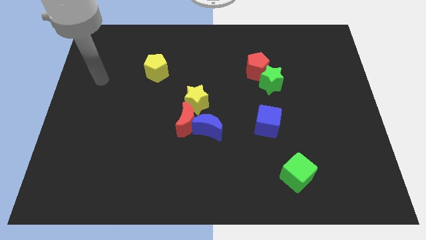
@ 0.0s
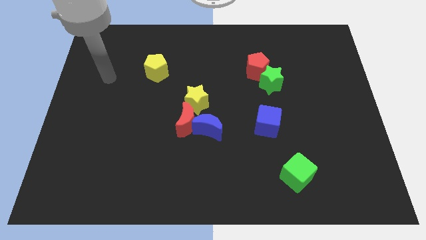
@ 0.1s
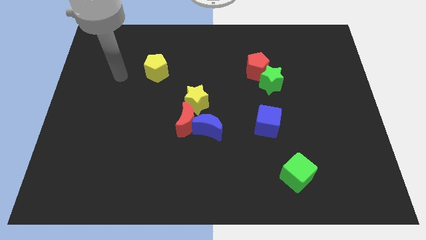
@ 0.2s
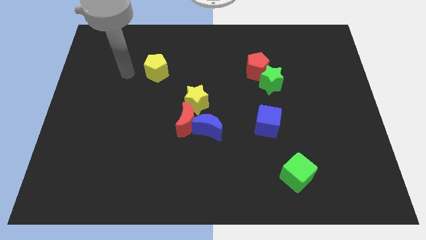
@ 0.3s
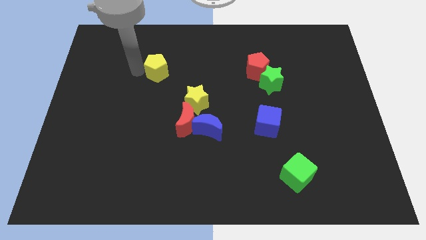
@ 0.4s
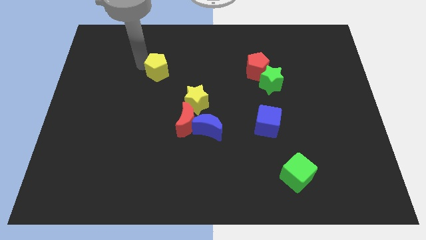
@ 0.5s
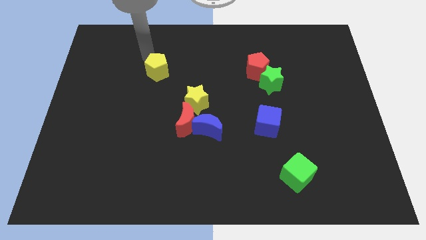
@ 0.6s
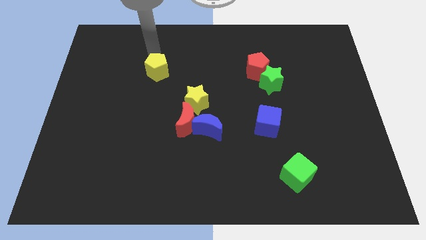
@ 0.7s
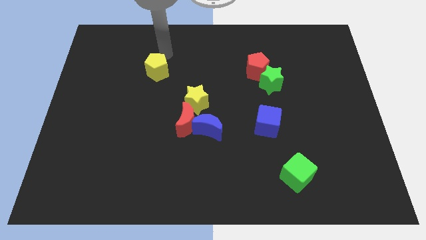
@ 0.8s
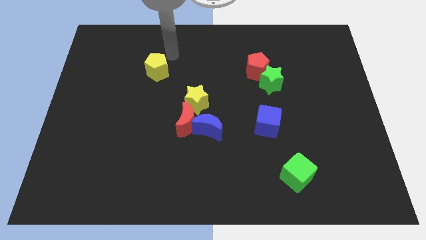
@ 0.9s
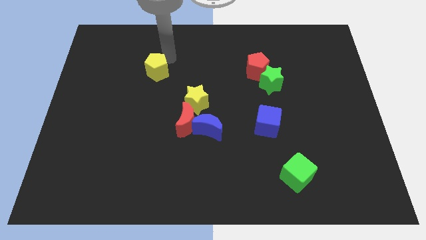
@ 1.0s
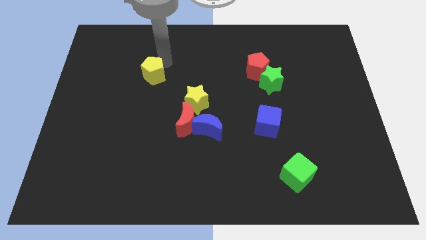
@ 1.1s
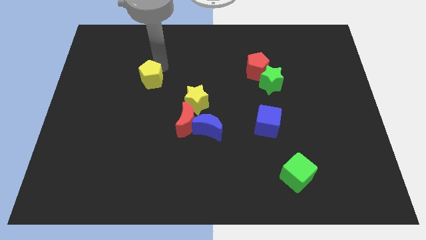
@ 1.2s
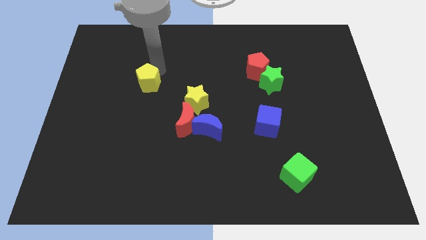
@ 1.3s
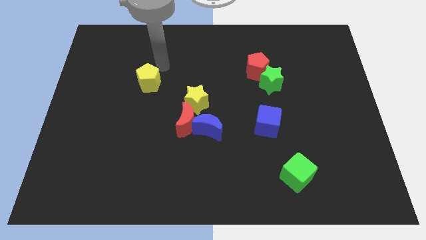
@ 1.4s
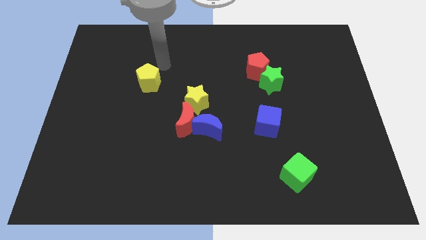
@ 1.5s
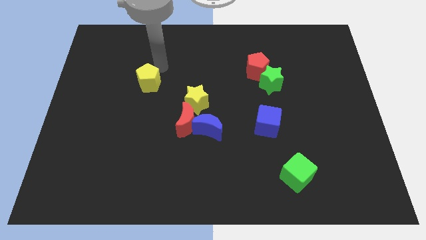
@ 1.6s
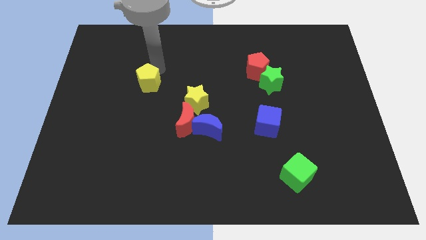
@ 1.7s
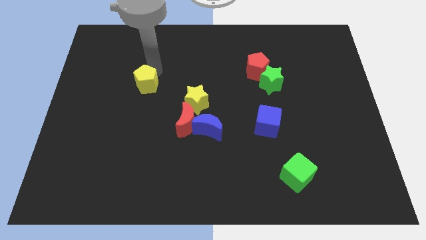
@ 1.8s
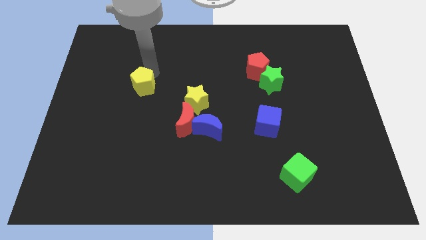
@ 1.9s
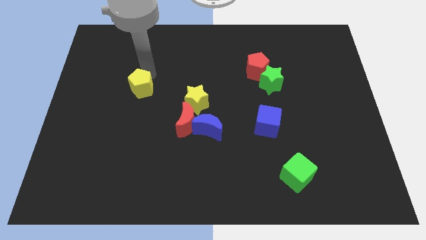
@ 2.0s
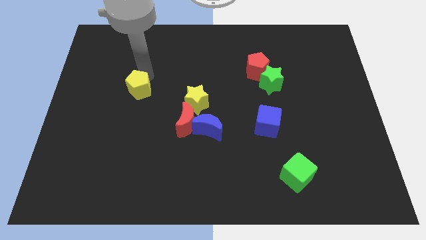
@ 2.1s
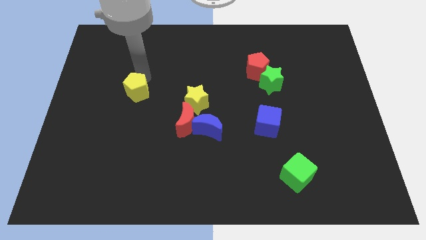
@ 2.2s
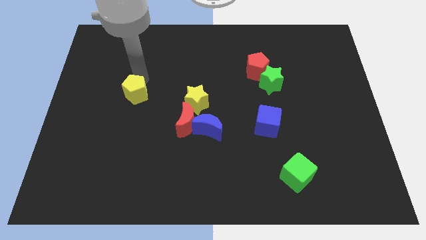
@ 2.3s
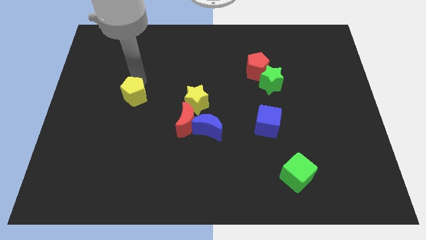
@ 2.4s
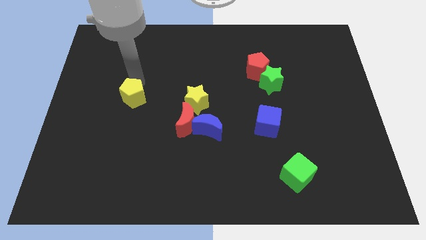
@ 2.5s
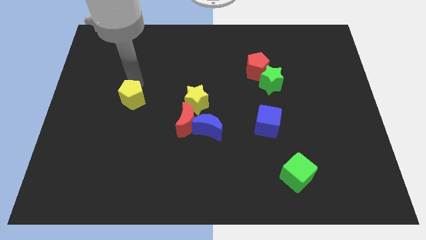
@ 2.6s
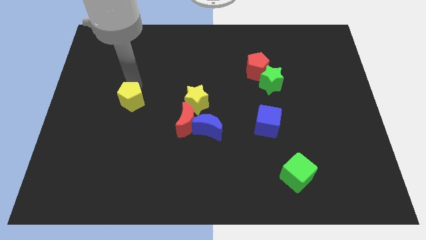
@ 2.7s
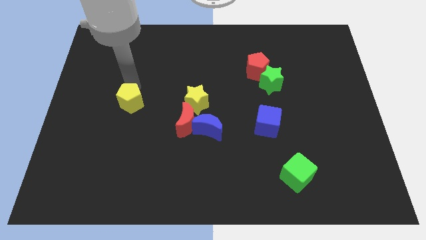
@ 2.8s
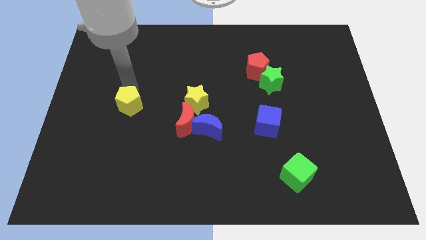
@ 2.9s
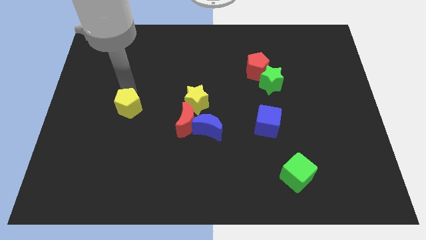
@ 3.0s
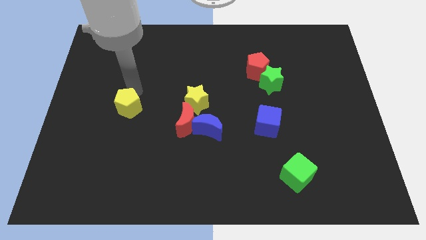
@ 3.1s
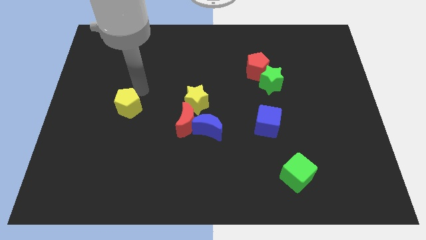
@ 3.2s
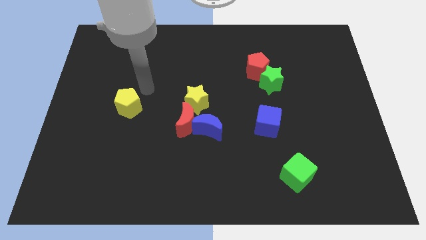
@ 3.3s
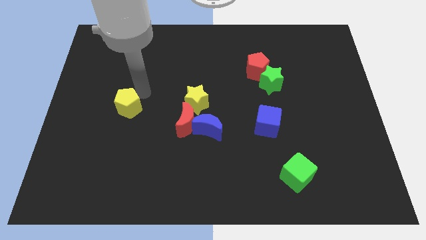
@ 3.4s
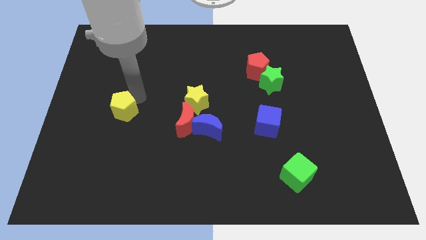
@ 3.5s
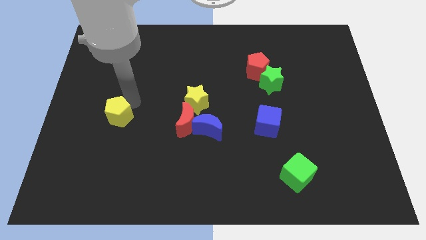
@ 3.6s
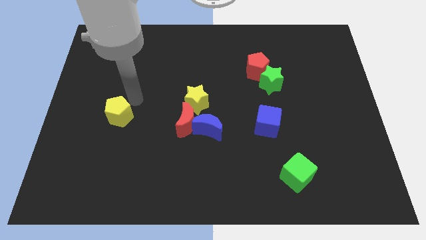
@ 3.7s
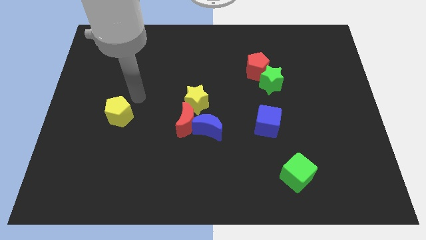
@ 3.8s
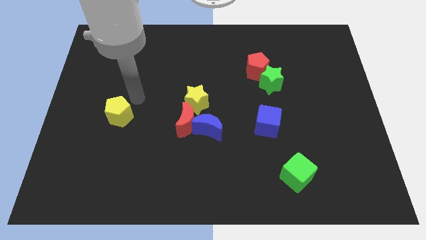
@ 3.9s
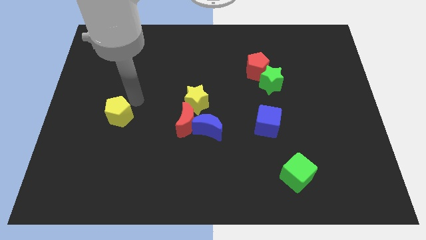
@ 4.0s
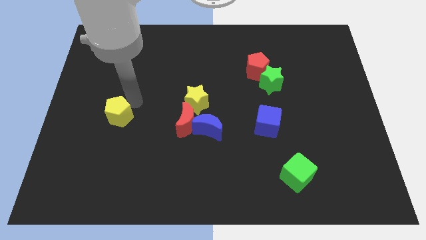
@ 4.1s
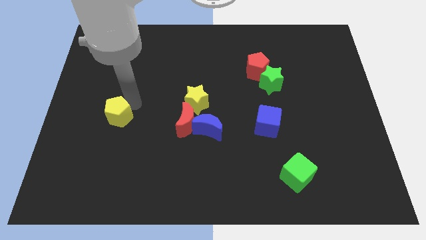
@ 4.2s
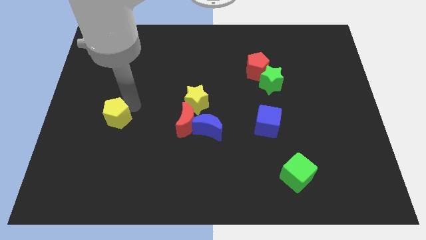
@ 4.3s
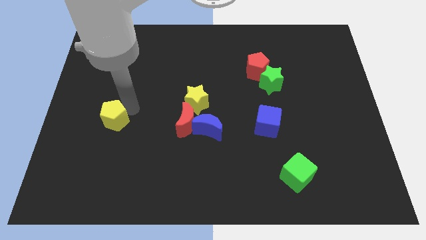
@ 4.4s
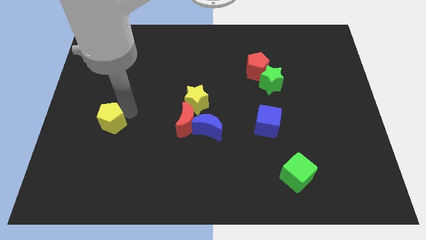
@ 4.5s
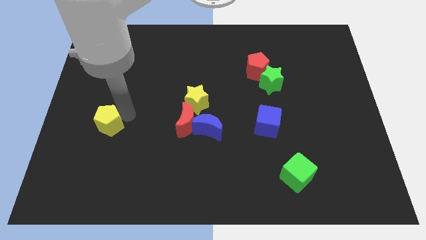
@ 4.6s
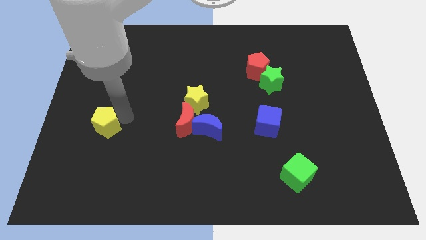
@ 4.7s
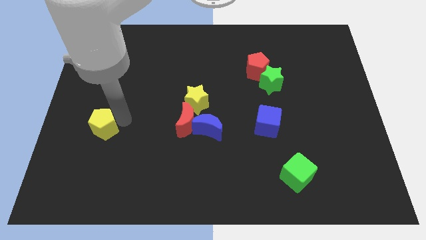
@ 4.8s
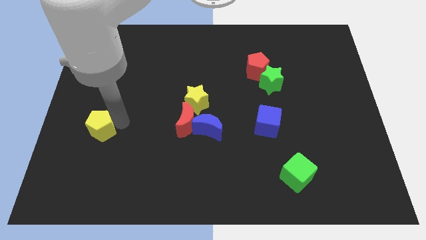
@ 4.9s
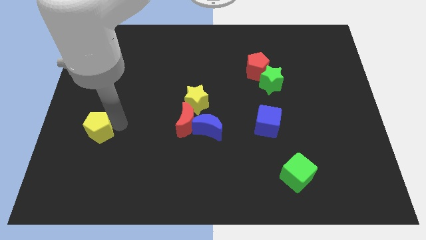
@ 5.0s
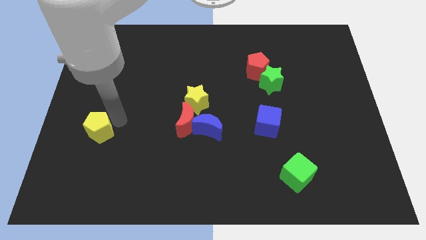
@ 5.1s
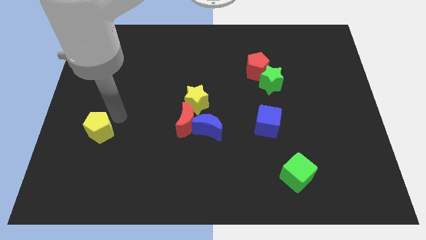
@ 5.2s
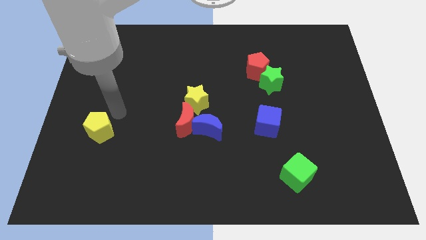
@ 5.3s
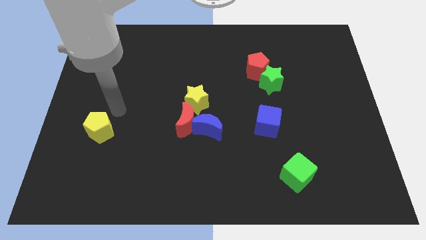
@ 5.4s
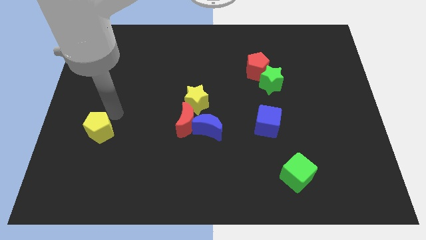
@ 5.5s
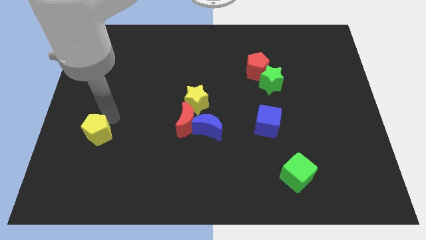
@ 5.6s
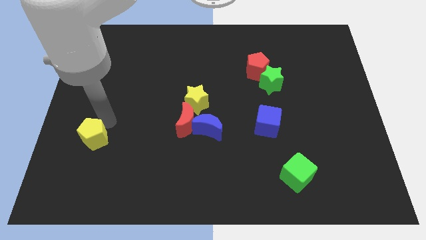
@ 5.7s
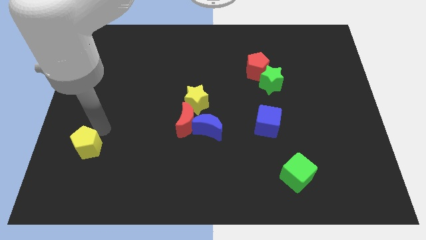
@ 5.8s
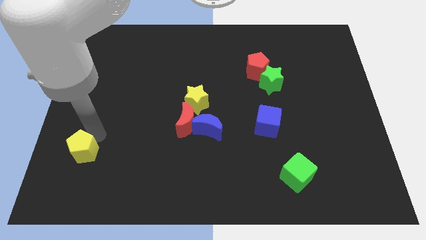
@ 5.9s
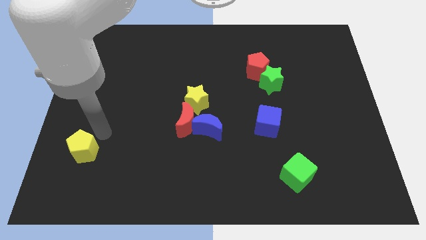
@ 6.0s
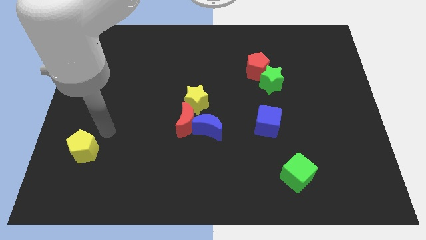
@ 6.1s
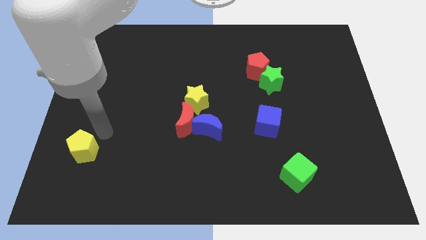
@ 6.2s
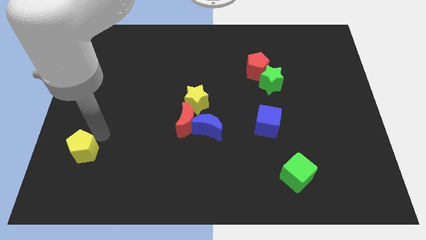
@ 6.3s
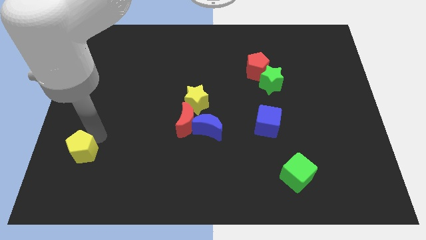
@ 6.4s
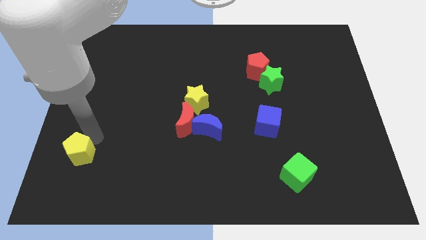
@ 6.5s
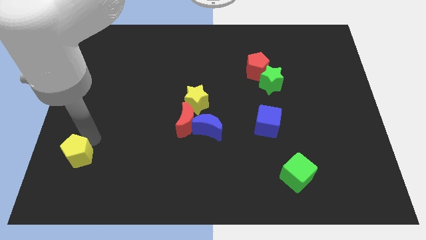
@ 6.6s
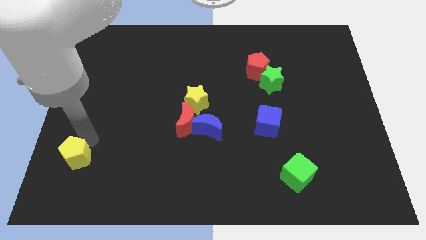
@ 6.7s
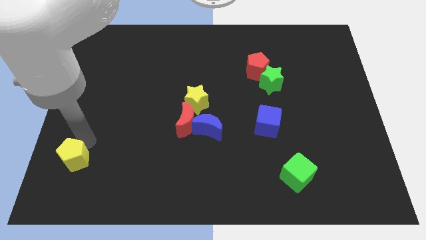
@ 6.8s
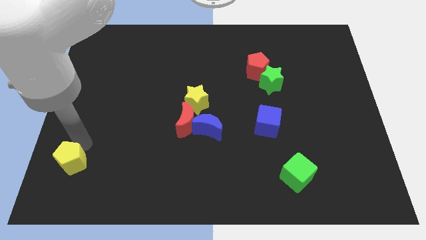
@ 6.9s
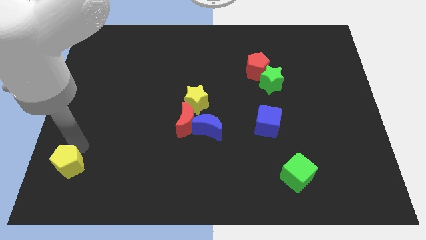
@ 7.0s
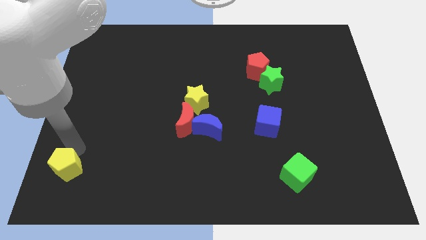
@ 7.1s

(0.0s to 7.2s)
move the yellow pentagon to the bottom left of the board

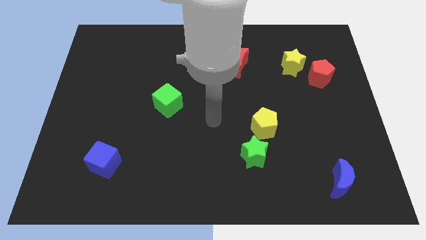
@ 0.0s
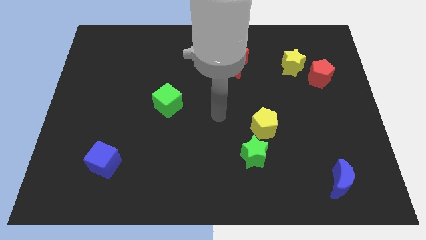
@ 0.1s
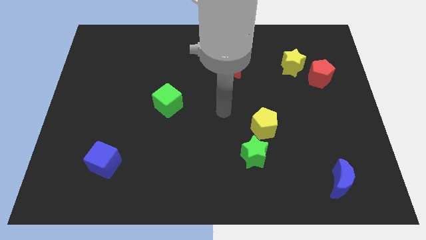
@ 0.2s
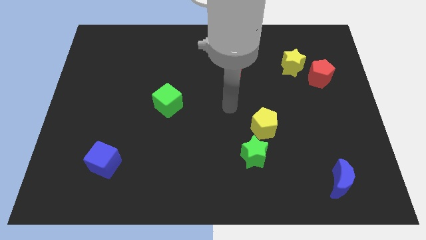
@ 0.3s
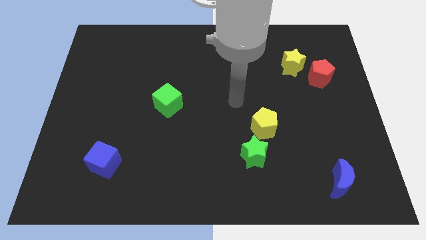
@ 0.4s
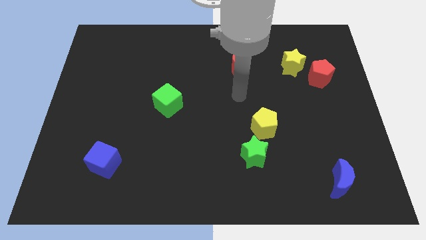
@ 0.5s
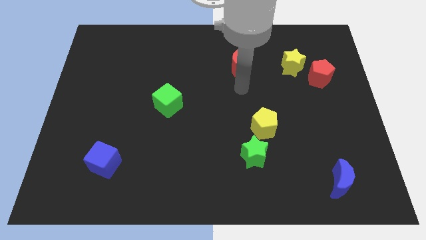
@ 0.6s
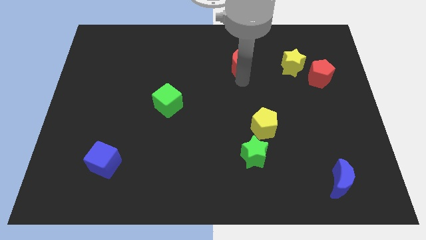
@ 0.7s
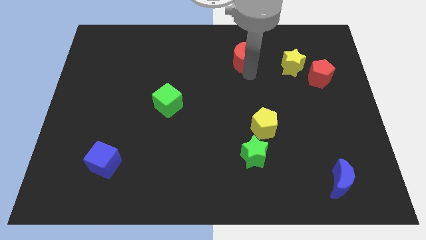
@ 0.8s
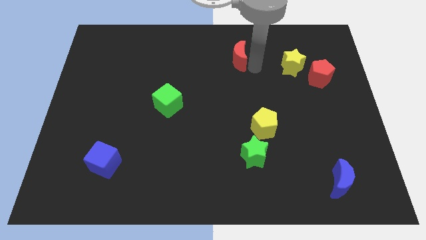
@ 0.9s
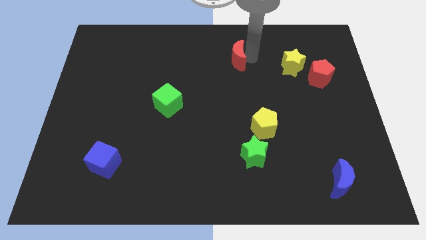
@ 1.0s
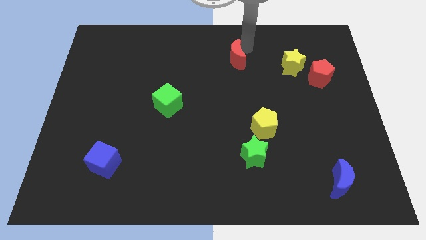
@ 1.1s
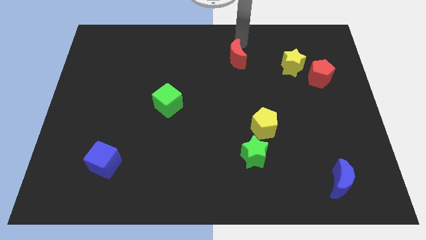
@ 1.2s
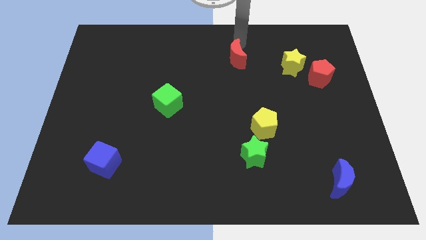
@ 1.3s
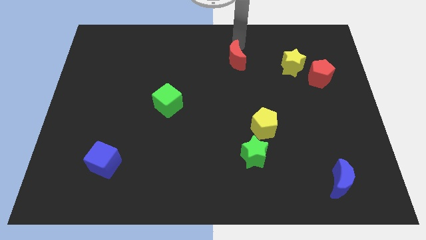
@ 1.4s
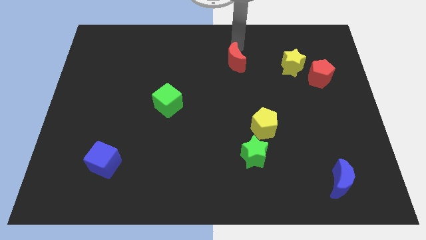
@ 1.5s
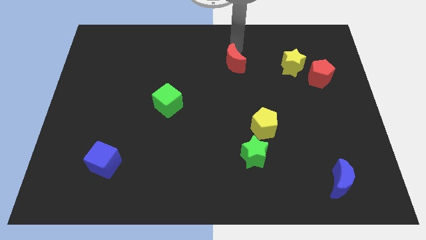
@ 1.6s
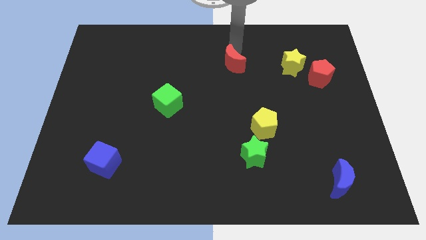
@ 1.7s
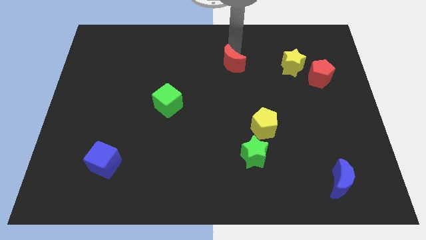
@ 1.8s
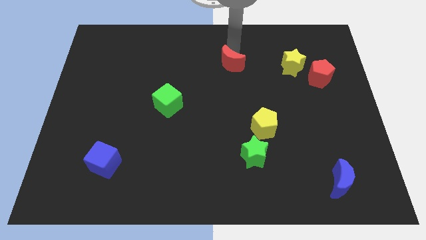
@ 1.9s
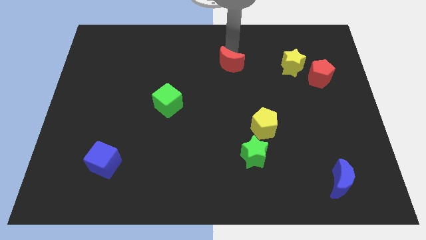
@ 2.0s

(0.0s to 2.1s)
put the red moon to the center
